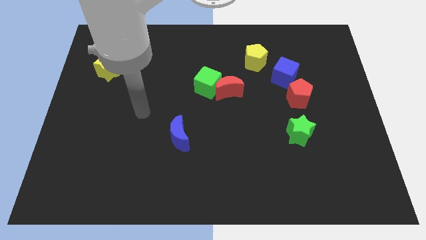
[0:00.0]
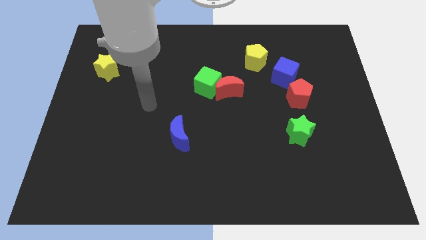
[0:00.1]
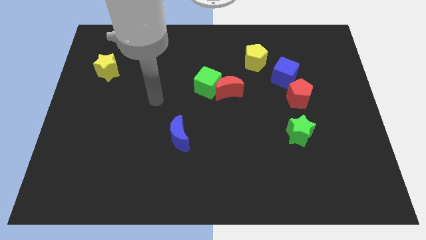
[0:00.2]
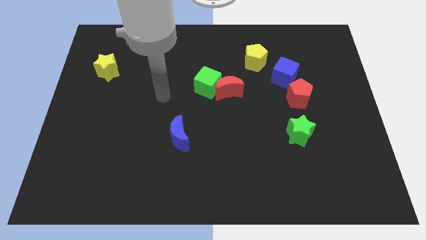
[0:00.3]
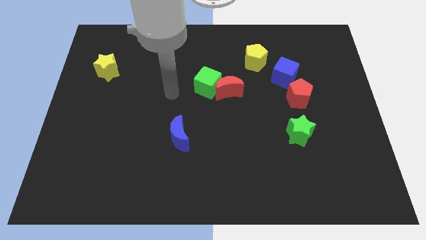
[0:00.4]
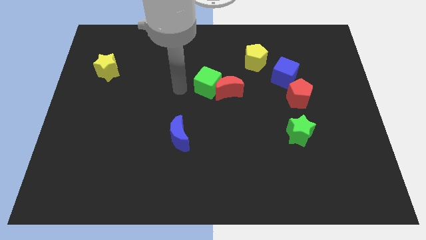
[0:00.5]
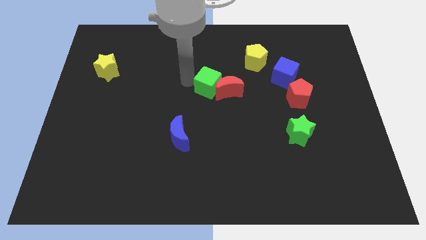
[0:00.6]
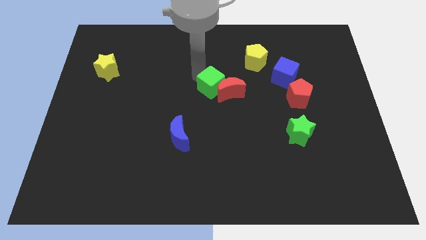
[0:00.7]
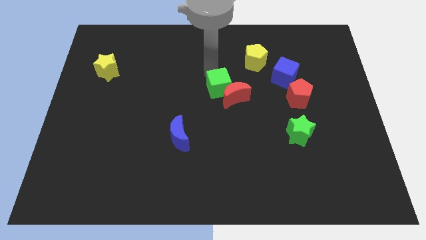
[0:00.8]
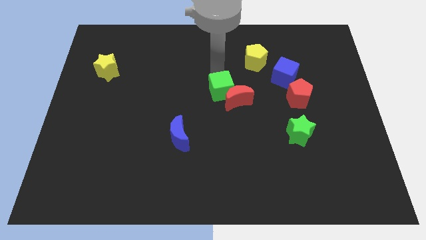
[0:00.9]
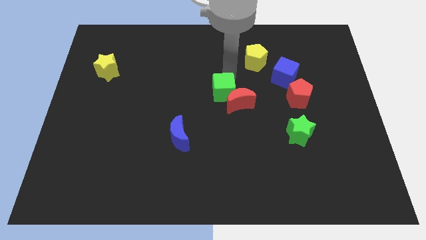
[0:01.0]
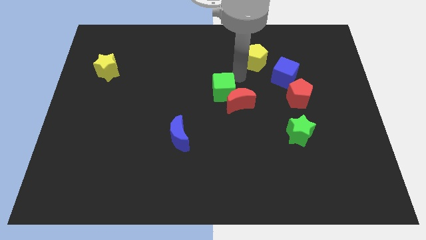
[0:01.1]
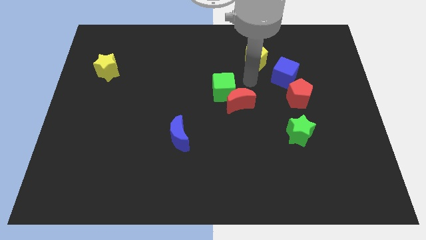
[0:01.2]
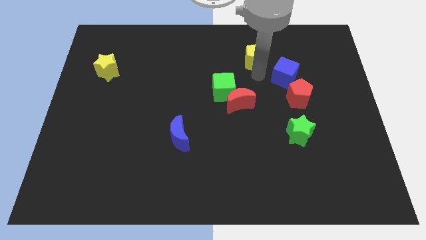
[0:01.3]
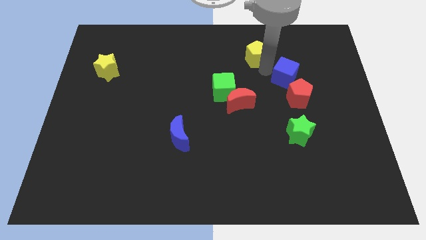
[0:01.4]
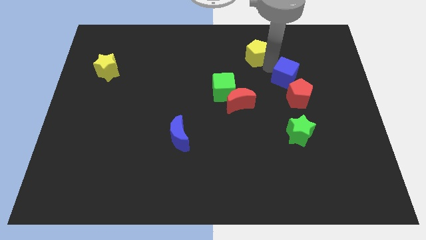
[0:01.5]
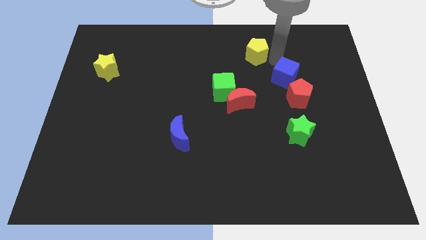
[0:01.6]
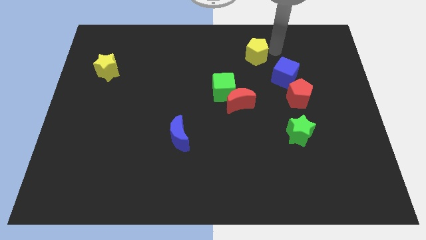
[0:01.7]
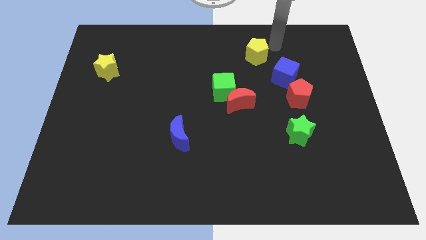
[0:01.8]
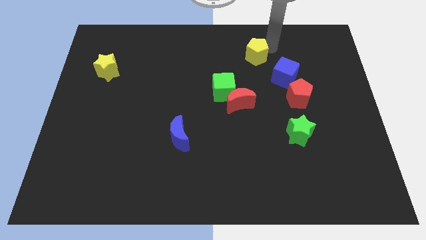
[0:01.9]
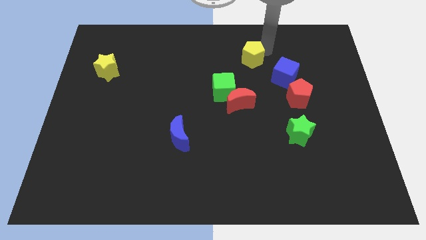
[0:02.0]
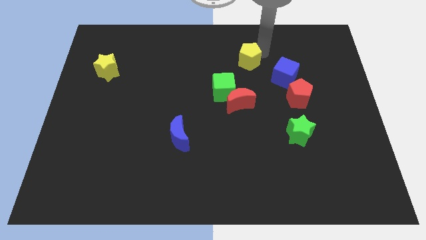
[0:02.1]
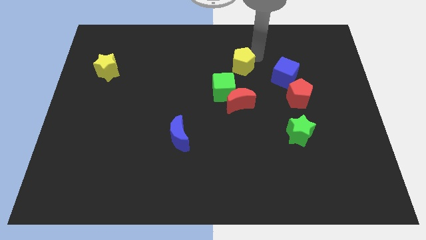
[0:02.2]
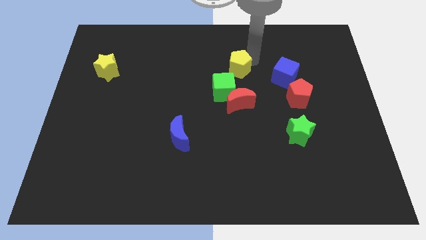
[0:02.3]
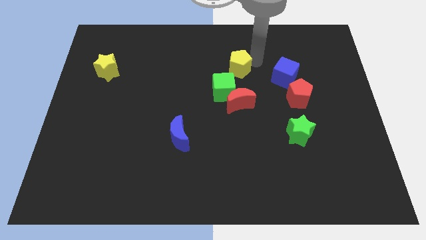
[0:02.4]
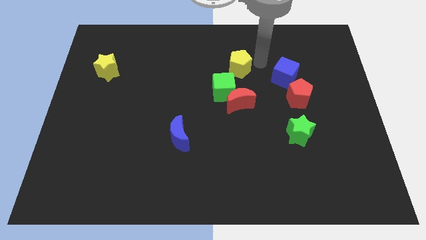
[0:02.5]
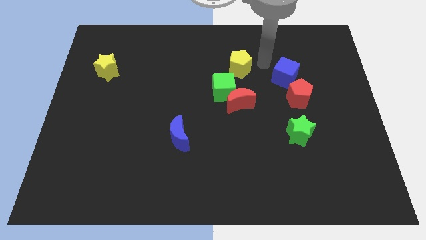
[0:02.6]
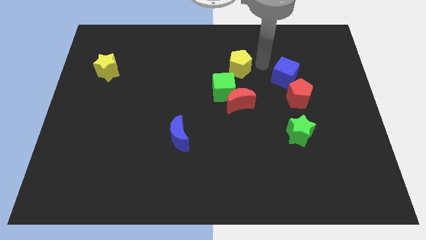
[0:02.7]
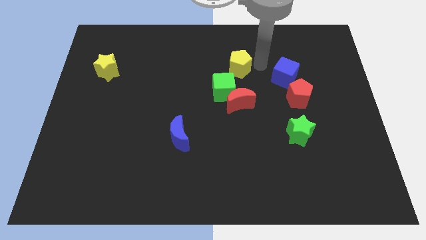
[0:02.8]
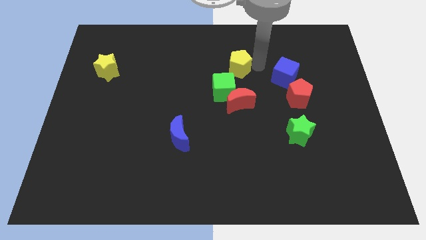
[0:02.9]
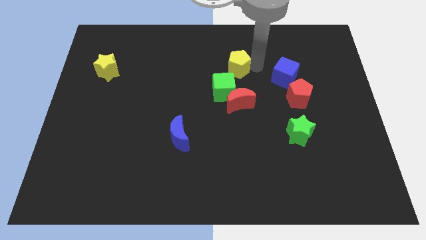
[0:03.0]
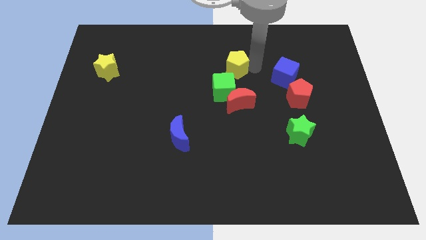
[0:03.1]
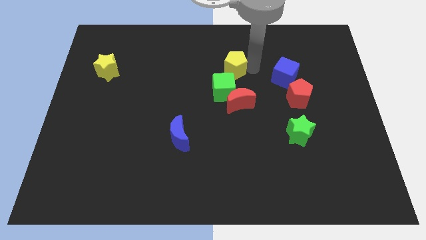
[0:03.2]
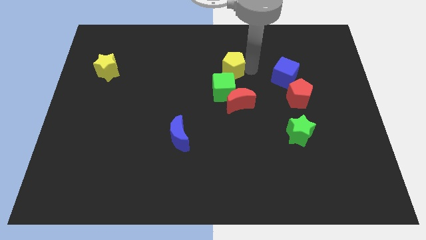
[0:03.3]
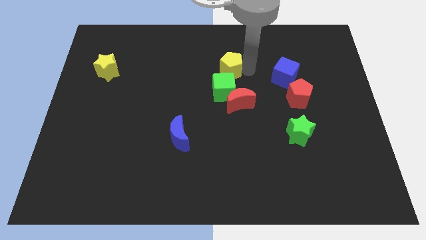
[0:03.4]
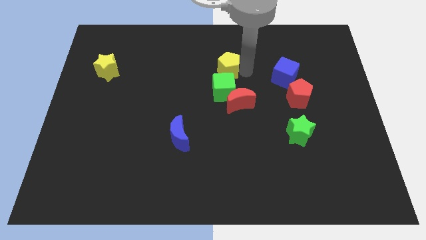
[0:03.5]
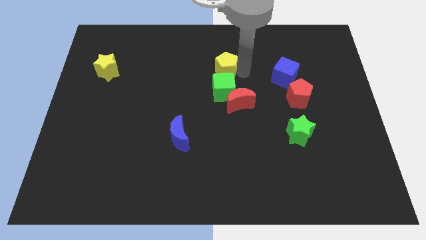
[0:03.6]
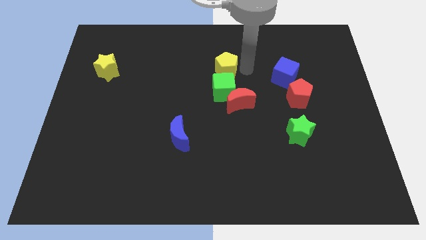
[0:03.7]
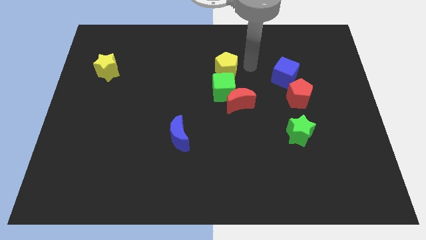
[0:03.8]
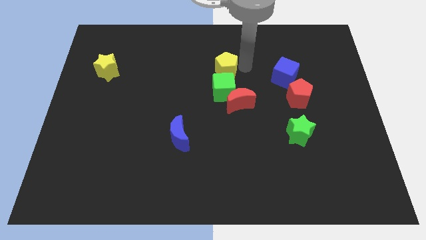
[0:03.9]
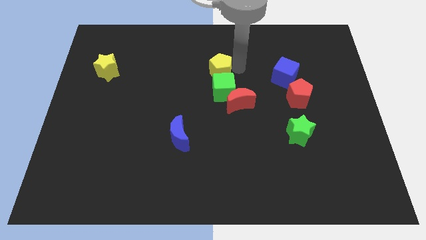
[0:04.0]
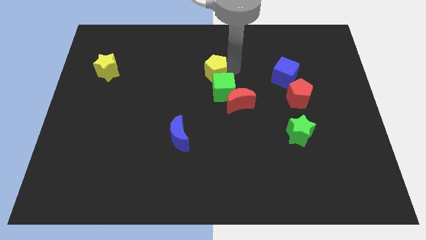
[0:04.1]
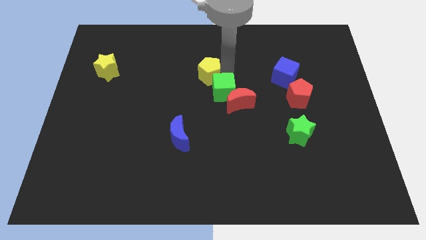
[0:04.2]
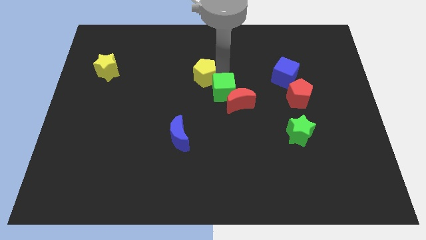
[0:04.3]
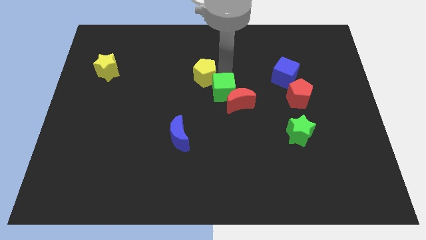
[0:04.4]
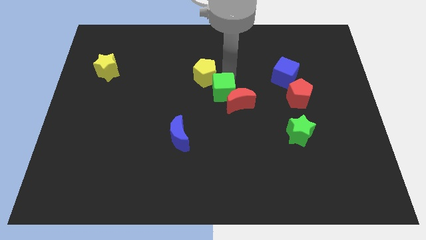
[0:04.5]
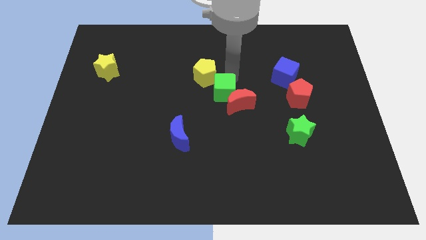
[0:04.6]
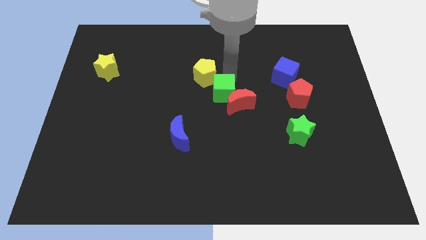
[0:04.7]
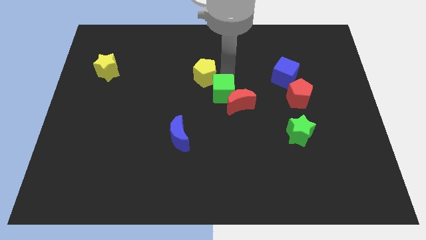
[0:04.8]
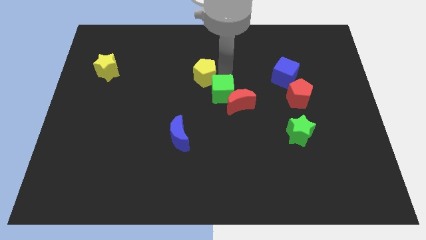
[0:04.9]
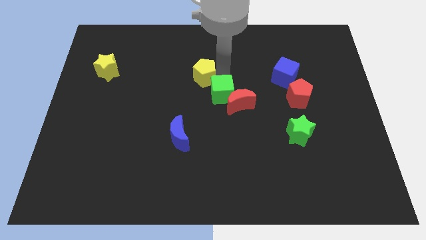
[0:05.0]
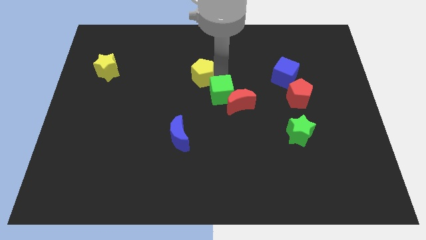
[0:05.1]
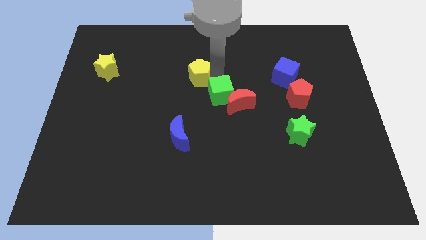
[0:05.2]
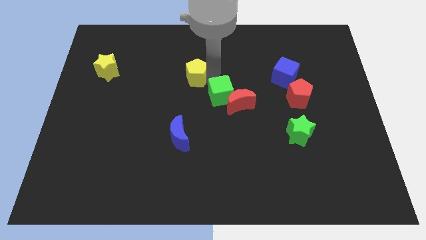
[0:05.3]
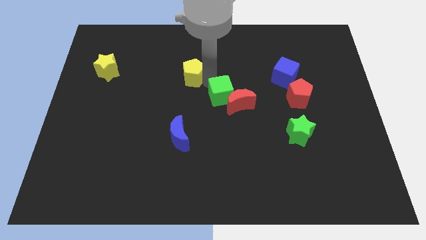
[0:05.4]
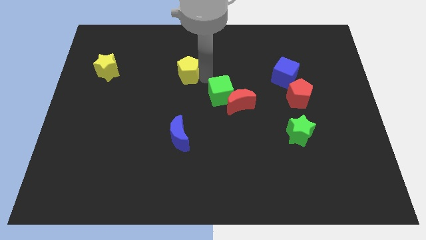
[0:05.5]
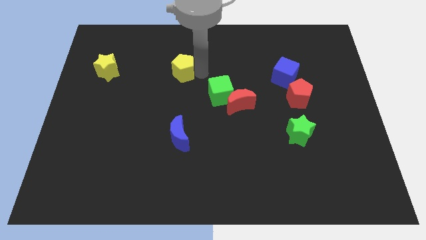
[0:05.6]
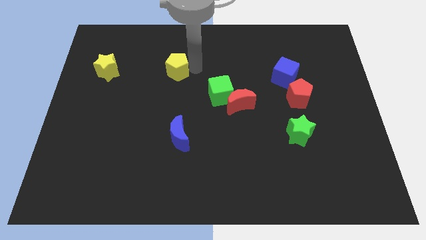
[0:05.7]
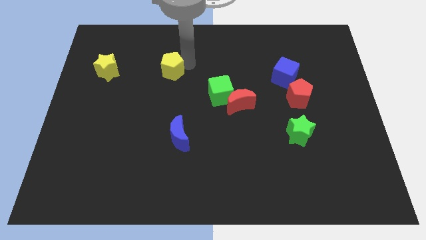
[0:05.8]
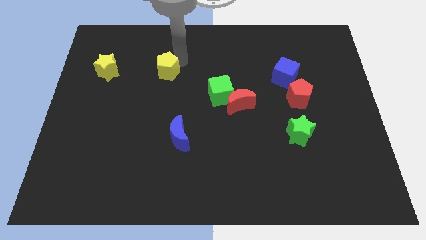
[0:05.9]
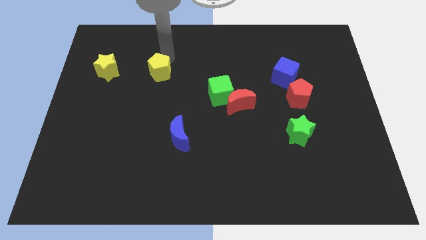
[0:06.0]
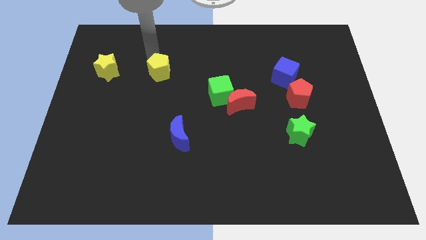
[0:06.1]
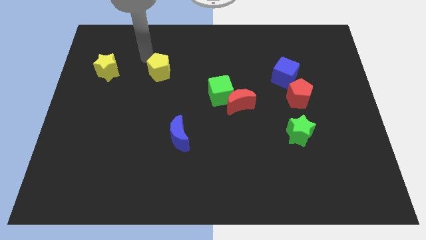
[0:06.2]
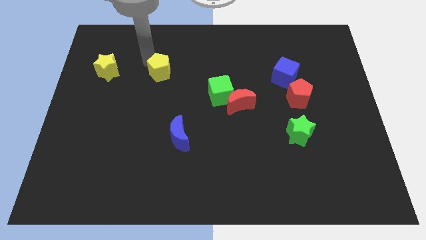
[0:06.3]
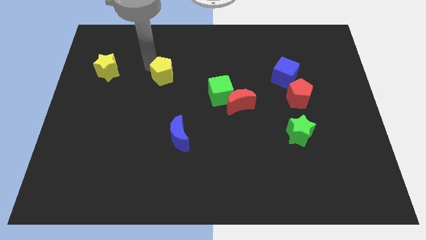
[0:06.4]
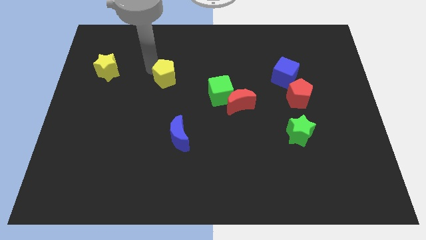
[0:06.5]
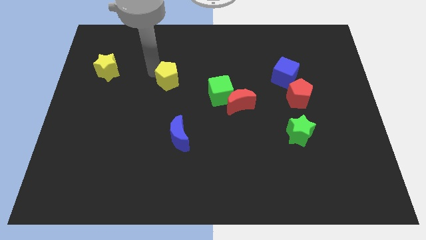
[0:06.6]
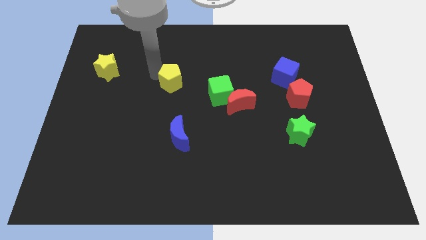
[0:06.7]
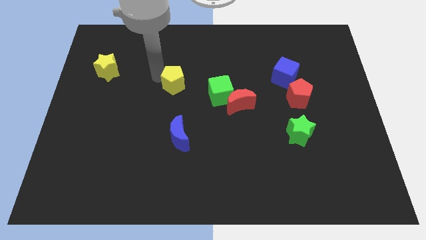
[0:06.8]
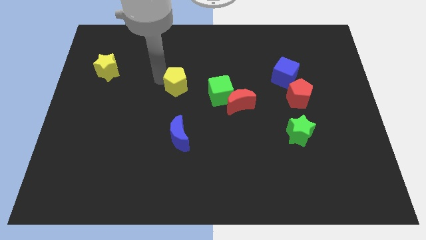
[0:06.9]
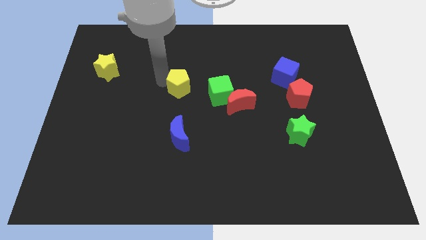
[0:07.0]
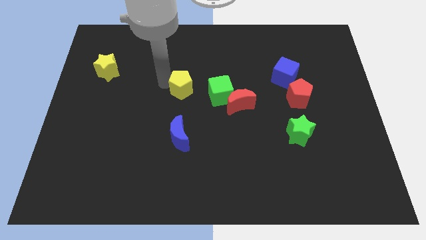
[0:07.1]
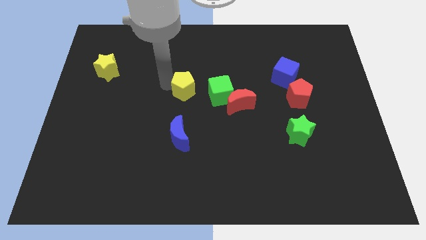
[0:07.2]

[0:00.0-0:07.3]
move the yellow pentagon to the left of the red moon
